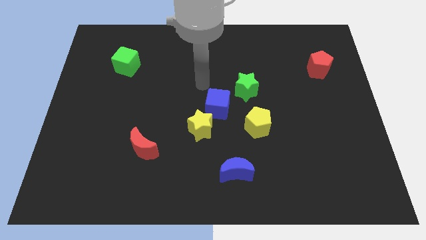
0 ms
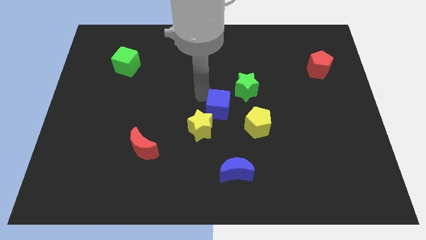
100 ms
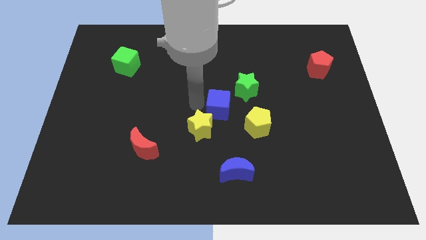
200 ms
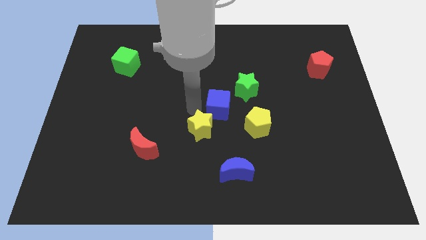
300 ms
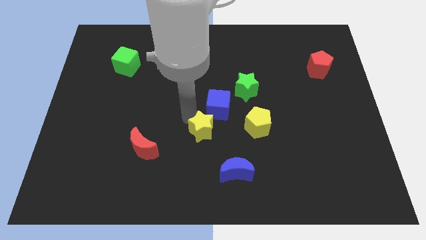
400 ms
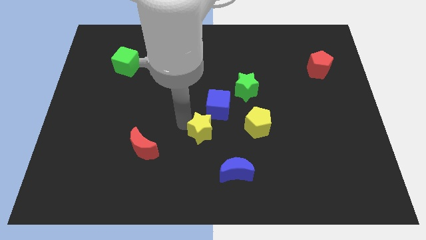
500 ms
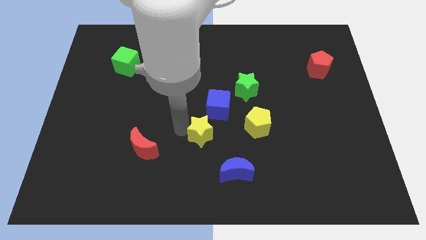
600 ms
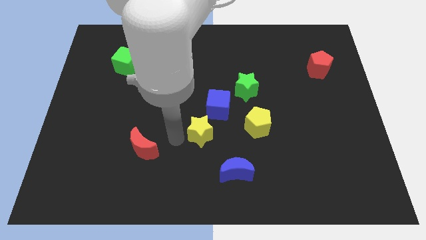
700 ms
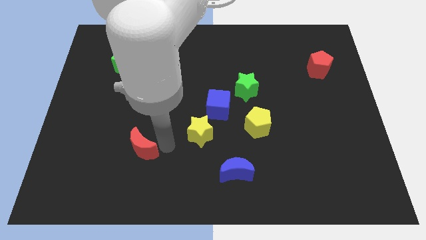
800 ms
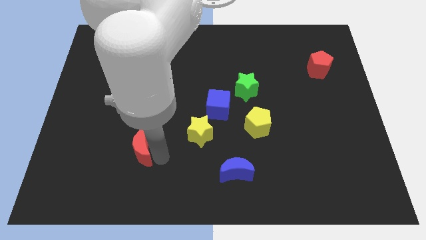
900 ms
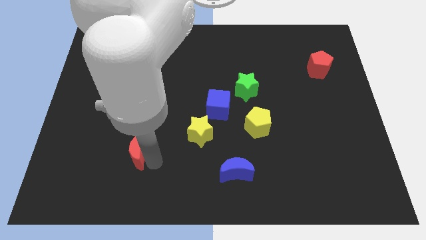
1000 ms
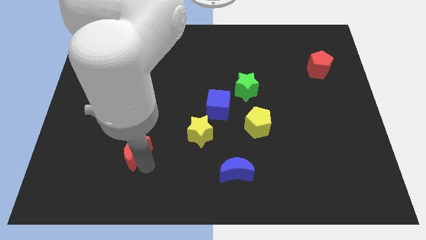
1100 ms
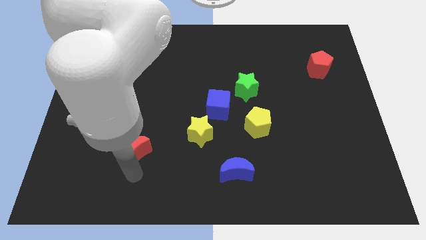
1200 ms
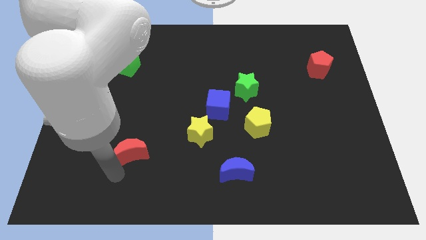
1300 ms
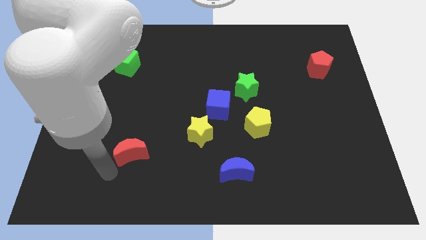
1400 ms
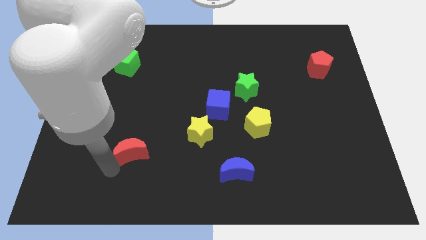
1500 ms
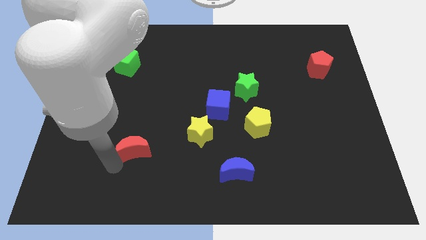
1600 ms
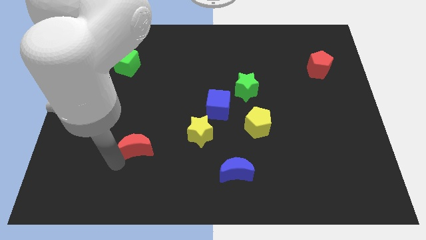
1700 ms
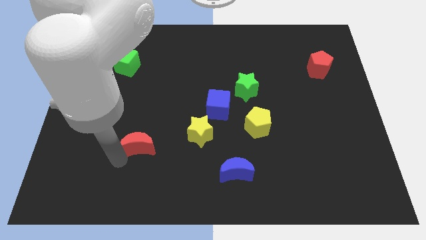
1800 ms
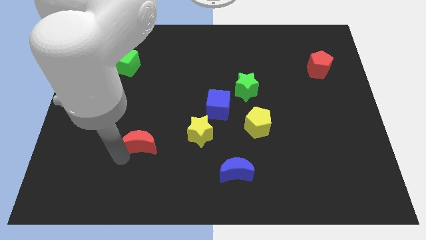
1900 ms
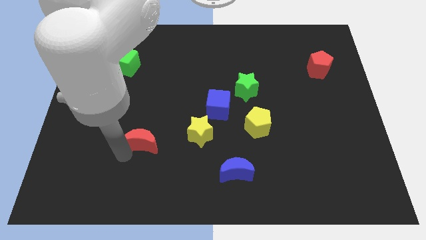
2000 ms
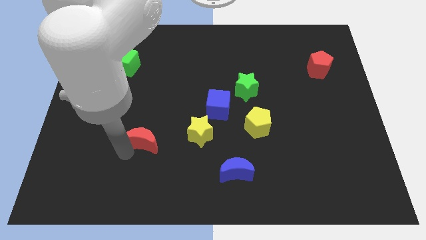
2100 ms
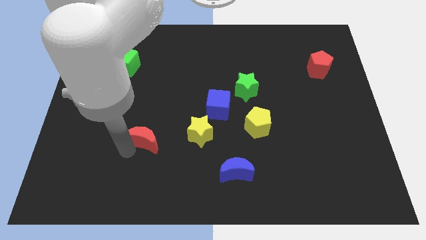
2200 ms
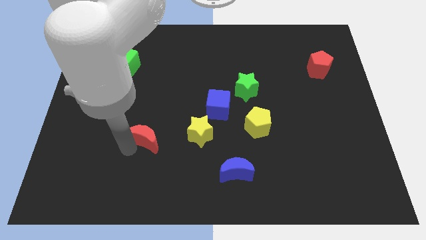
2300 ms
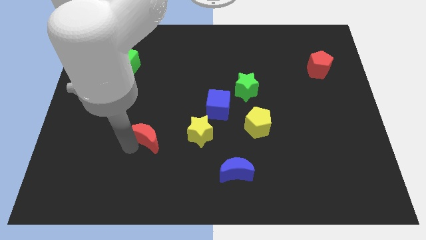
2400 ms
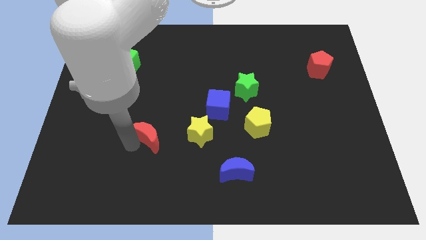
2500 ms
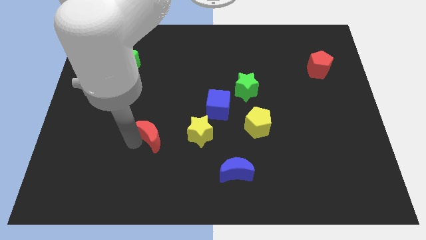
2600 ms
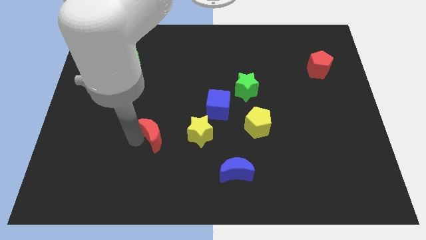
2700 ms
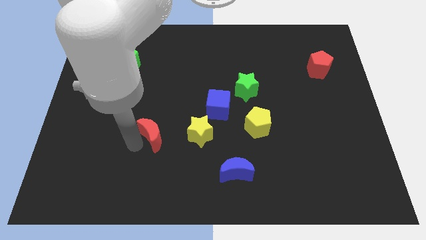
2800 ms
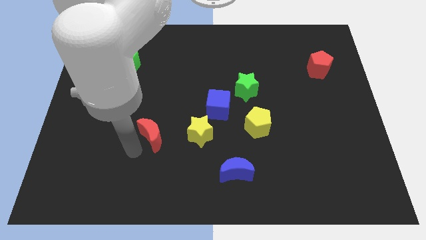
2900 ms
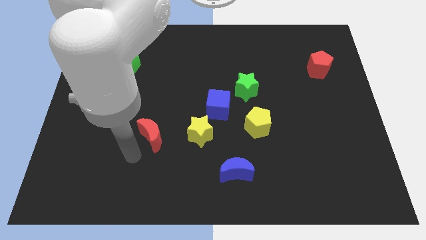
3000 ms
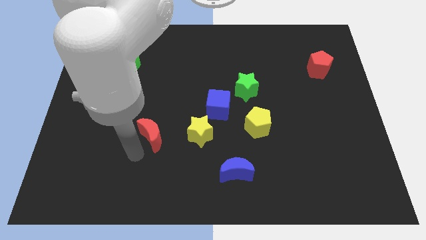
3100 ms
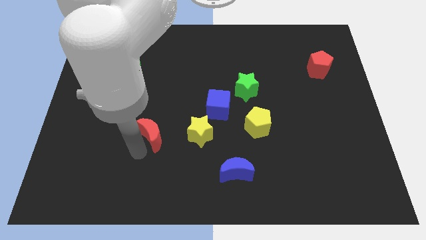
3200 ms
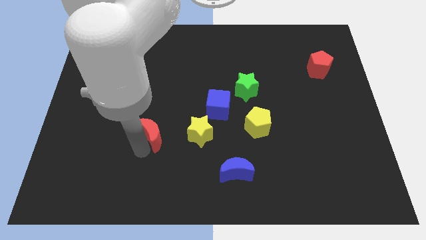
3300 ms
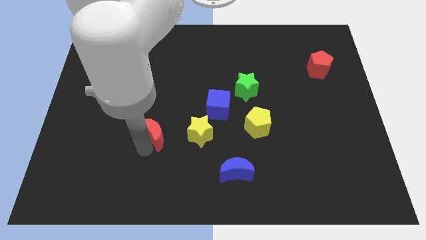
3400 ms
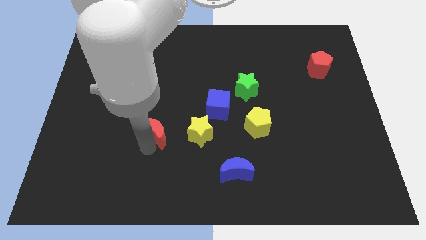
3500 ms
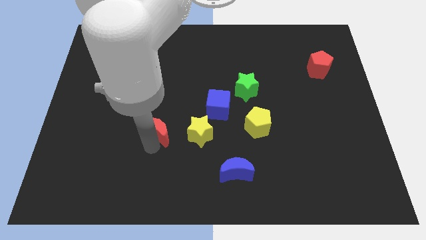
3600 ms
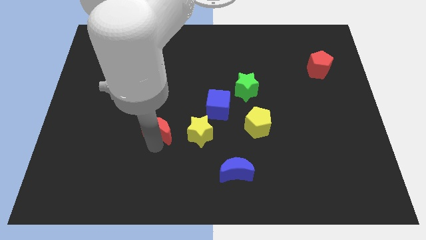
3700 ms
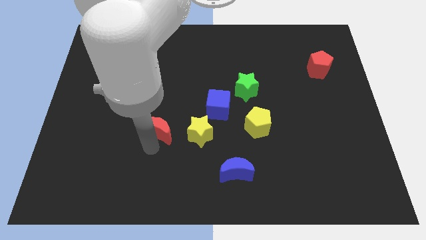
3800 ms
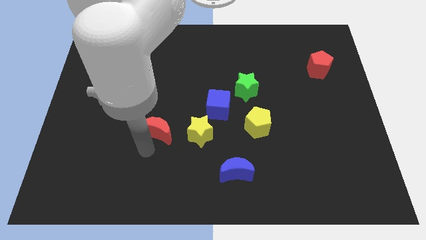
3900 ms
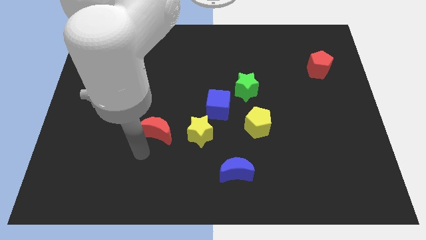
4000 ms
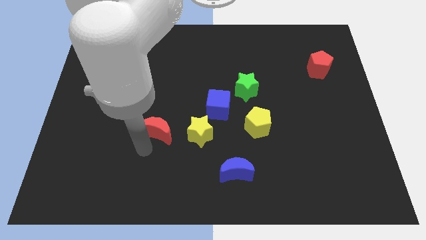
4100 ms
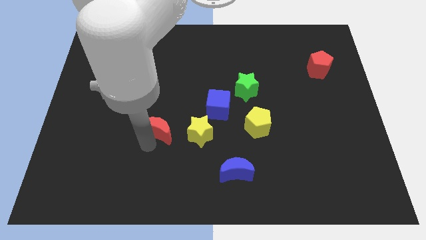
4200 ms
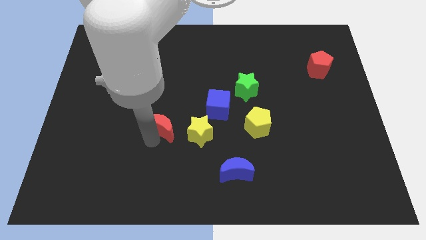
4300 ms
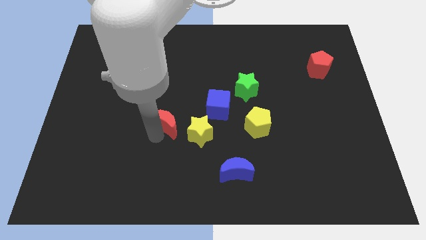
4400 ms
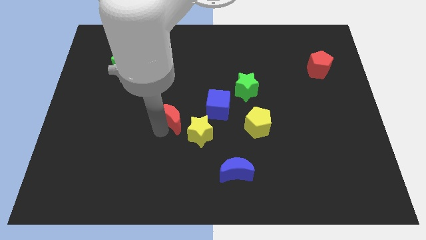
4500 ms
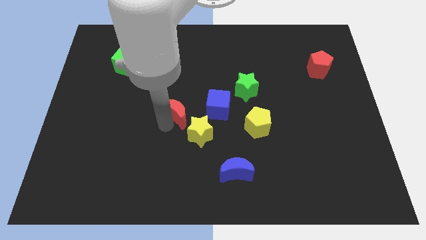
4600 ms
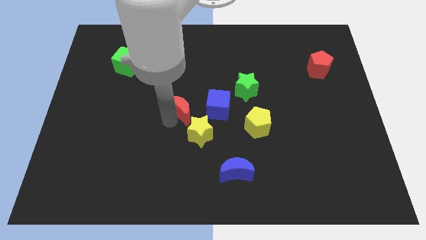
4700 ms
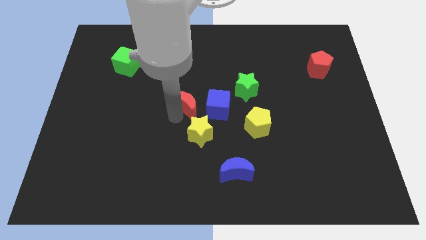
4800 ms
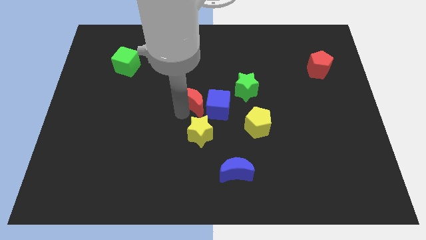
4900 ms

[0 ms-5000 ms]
slide the red moon to the top left of the blue cube
